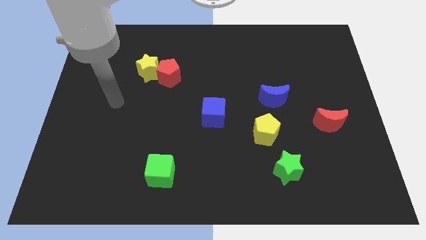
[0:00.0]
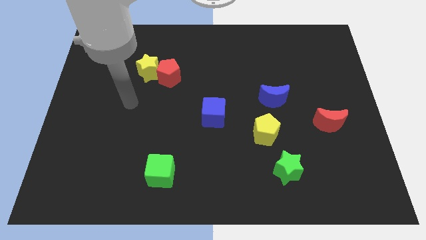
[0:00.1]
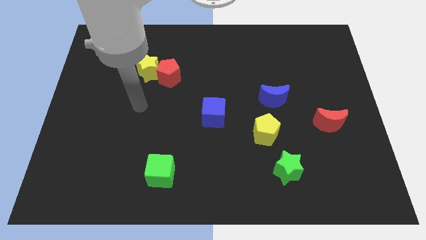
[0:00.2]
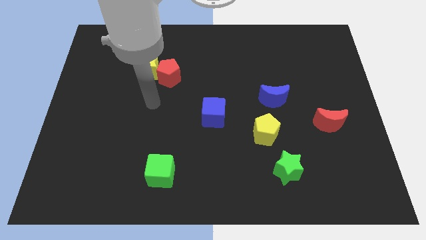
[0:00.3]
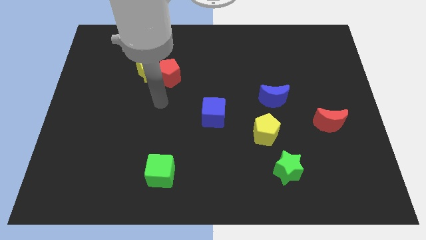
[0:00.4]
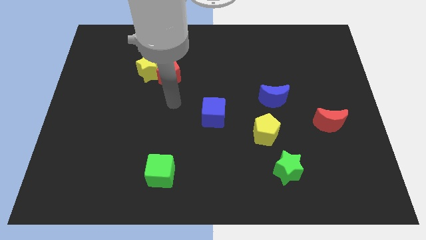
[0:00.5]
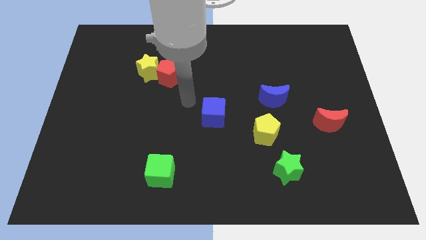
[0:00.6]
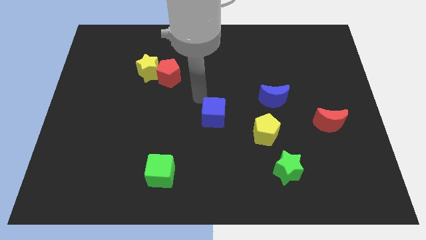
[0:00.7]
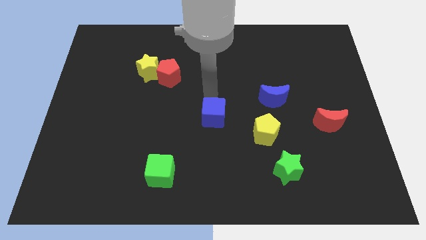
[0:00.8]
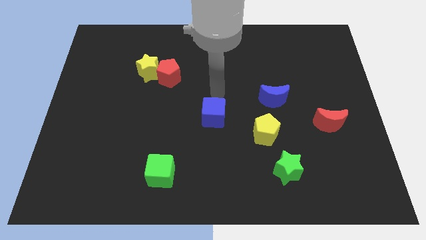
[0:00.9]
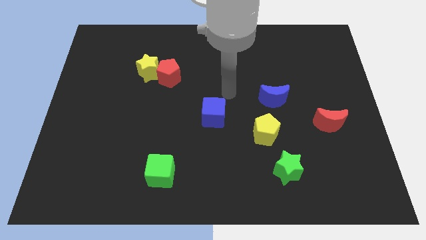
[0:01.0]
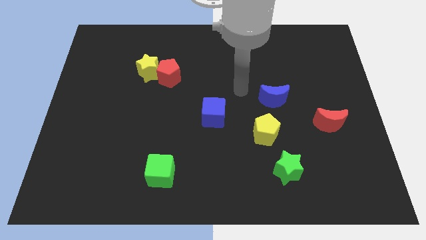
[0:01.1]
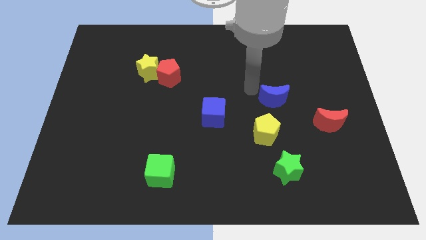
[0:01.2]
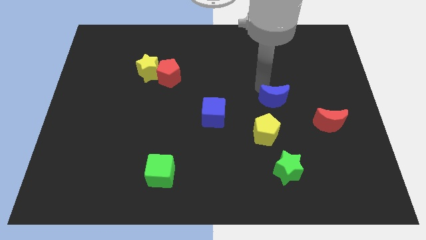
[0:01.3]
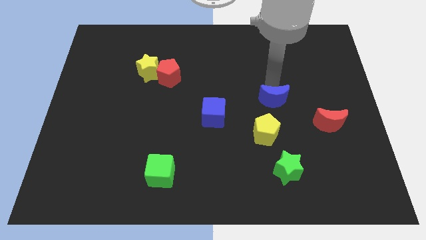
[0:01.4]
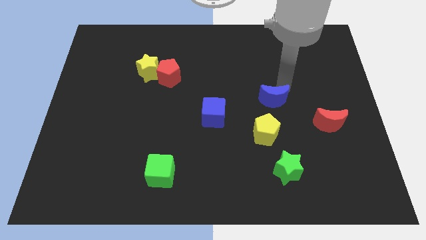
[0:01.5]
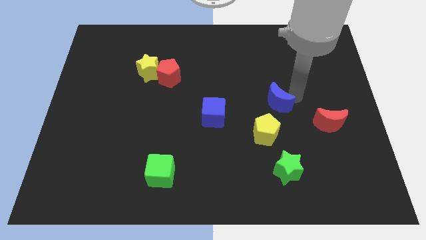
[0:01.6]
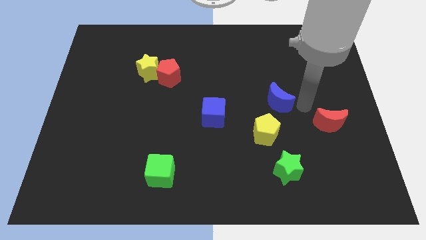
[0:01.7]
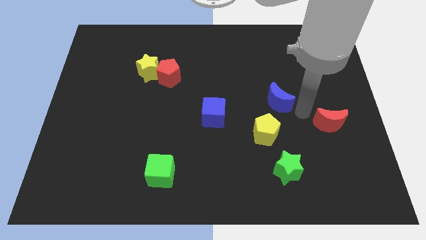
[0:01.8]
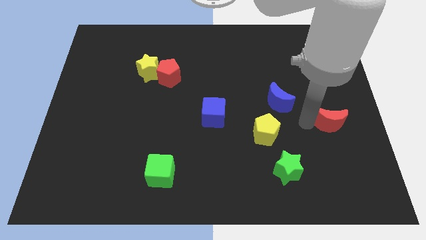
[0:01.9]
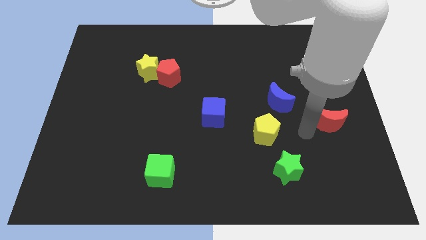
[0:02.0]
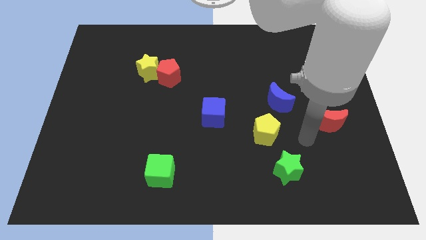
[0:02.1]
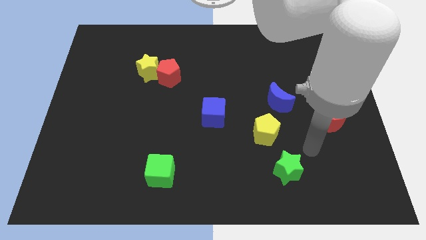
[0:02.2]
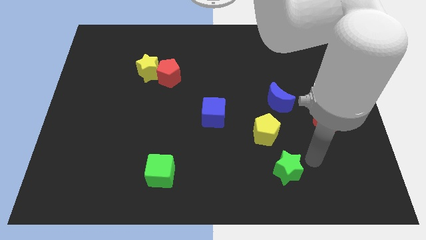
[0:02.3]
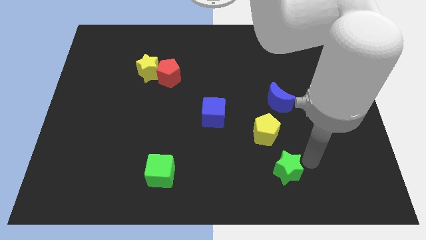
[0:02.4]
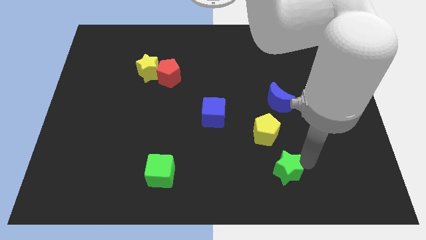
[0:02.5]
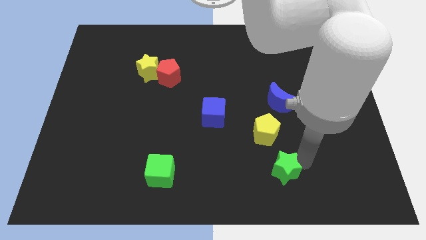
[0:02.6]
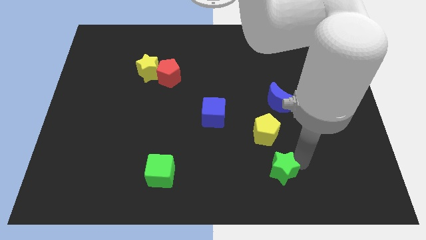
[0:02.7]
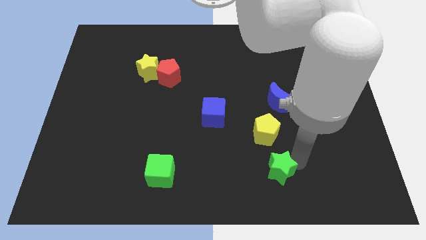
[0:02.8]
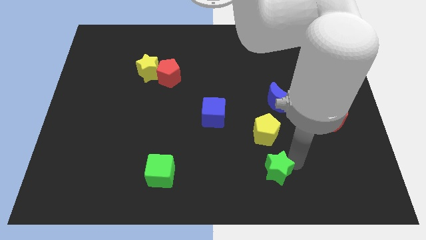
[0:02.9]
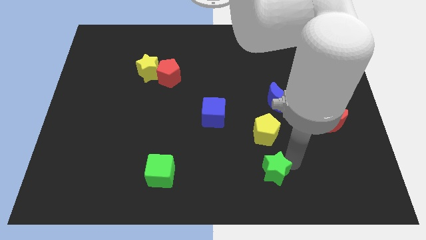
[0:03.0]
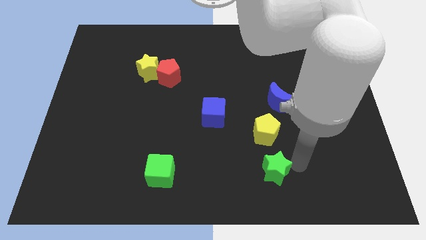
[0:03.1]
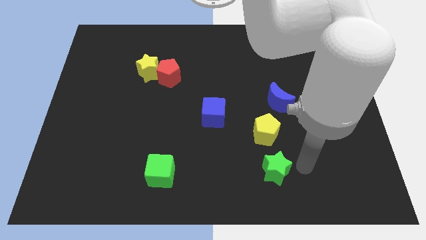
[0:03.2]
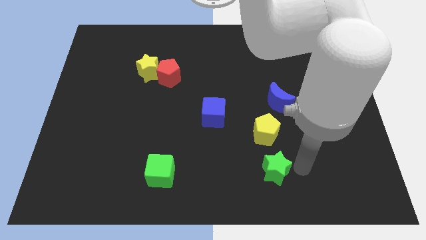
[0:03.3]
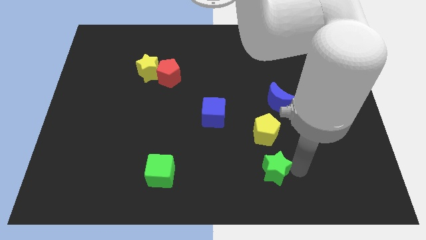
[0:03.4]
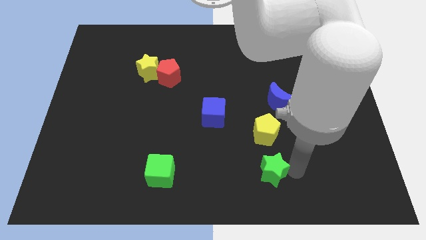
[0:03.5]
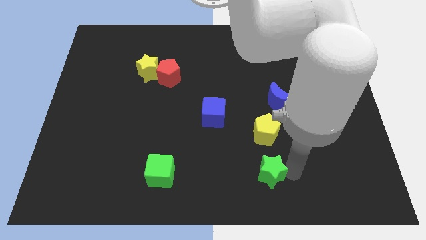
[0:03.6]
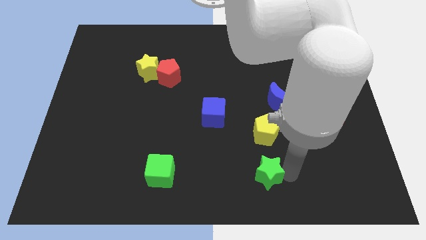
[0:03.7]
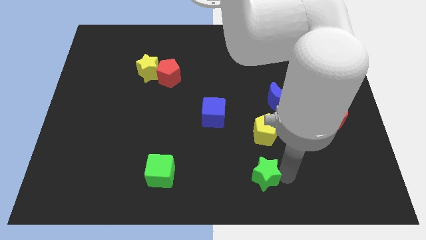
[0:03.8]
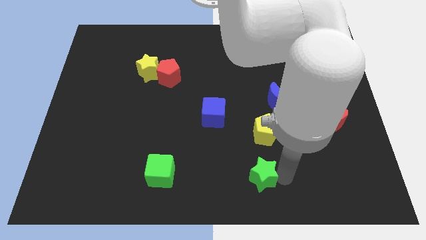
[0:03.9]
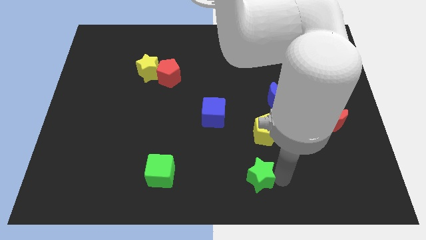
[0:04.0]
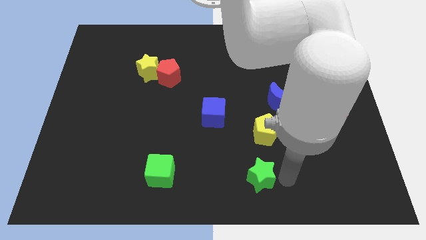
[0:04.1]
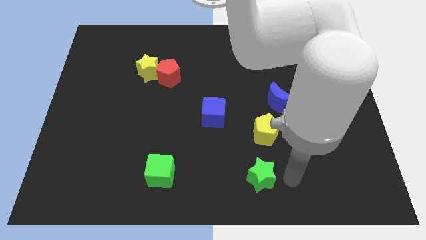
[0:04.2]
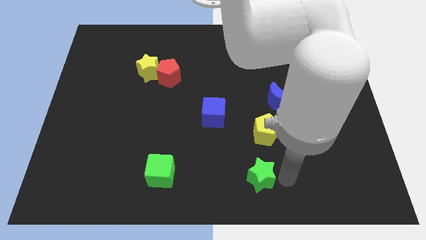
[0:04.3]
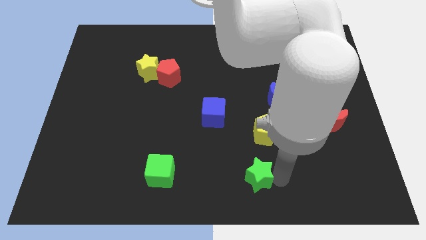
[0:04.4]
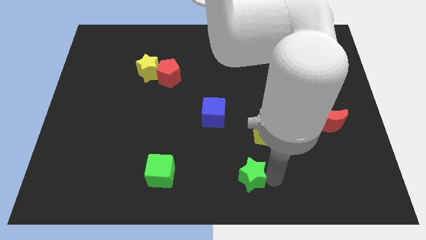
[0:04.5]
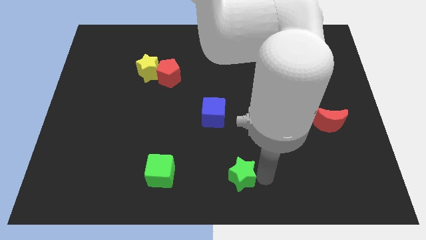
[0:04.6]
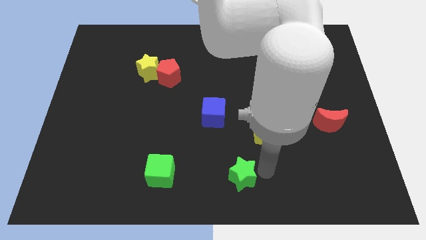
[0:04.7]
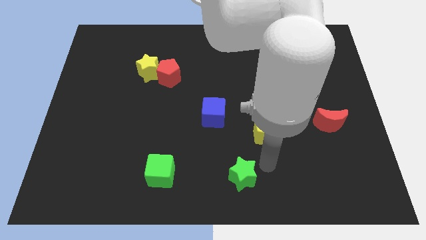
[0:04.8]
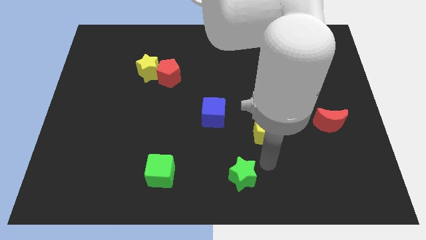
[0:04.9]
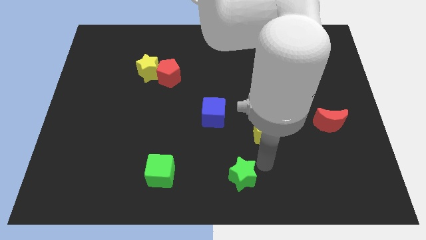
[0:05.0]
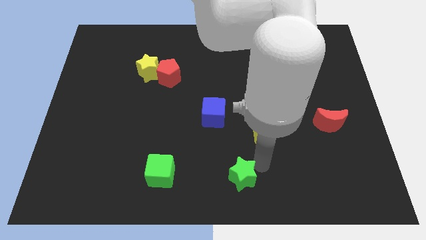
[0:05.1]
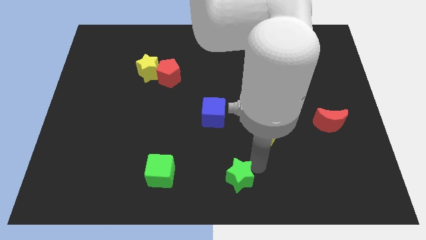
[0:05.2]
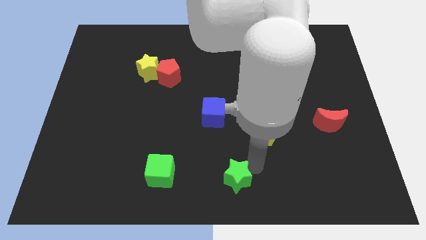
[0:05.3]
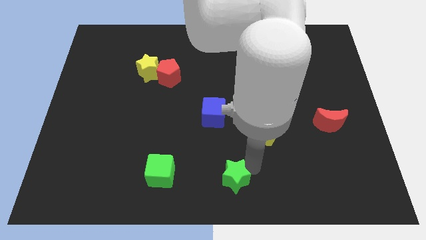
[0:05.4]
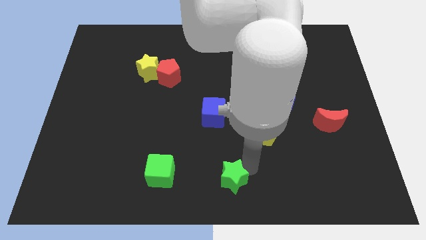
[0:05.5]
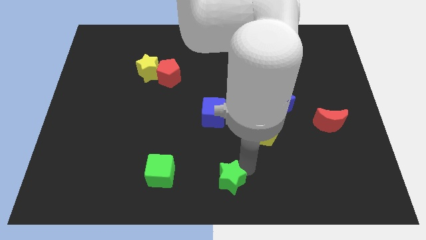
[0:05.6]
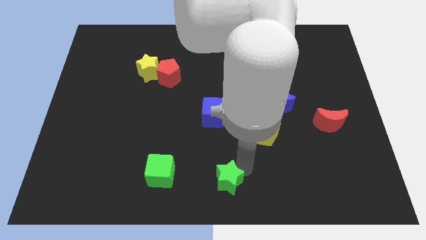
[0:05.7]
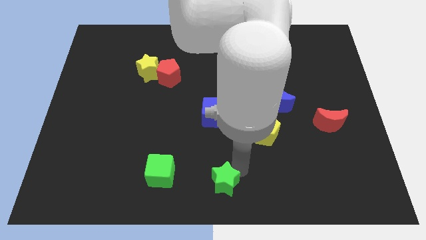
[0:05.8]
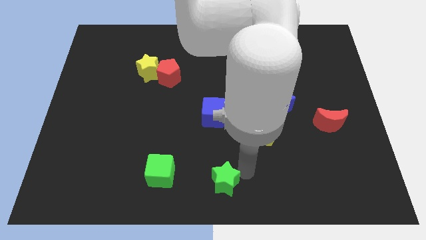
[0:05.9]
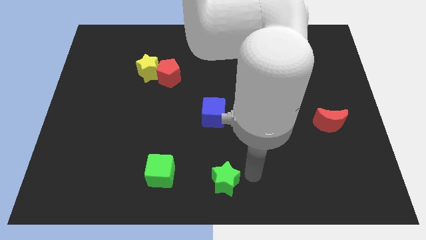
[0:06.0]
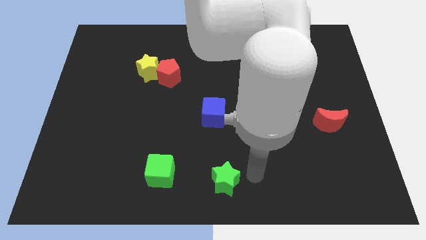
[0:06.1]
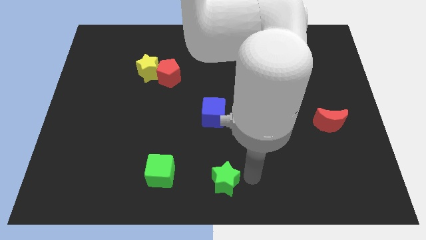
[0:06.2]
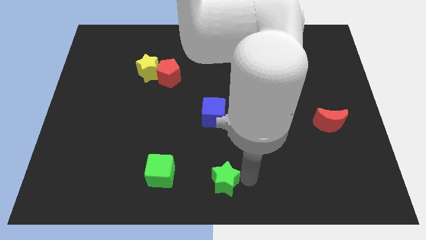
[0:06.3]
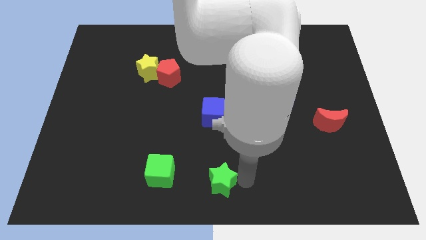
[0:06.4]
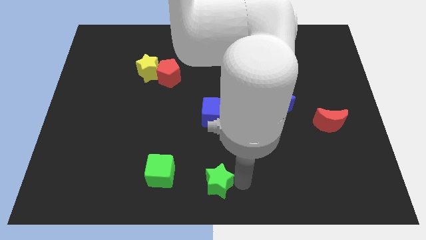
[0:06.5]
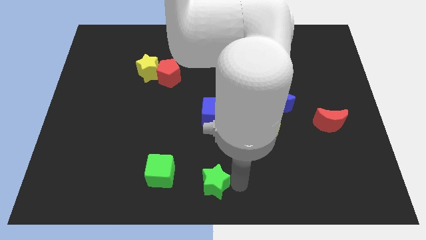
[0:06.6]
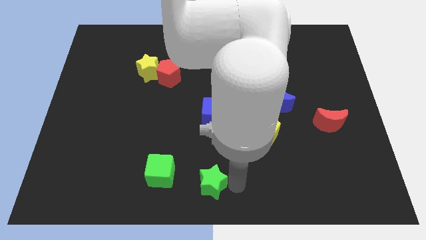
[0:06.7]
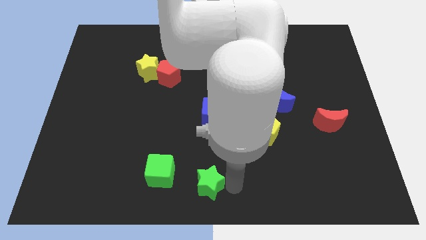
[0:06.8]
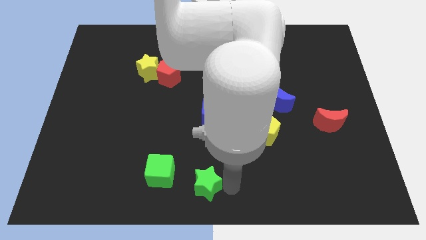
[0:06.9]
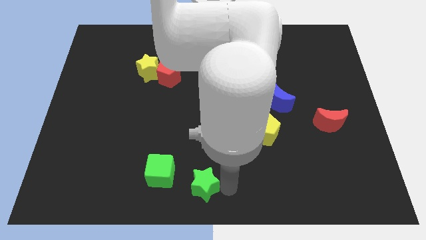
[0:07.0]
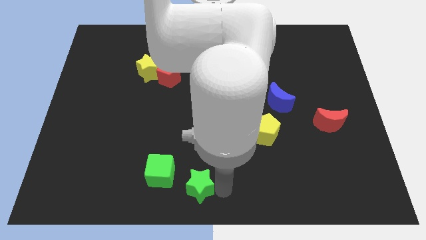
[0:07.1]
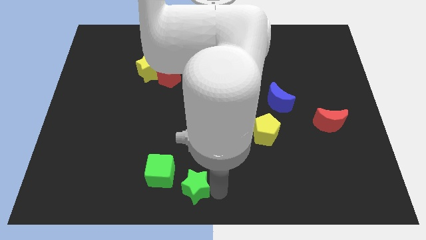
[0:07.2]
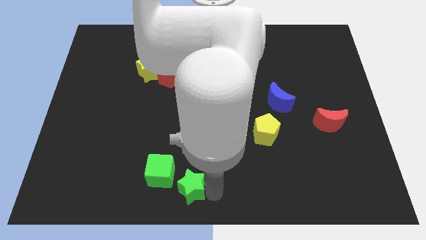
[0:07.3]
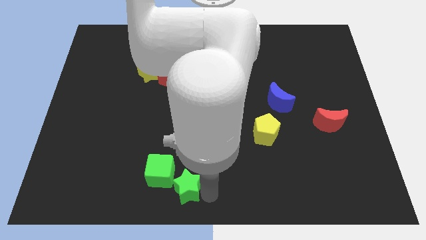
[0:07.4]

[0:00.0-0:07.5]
push the green star left

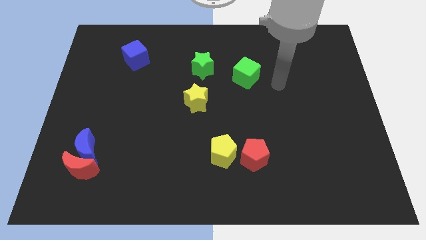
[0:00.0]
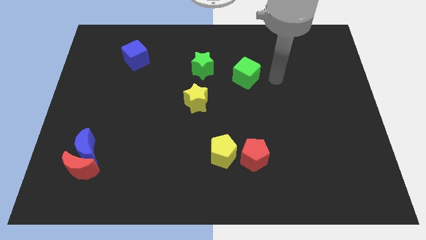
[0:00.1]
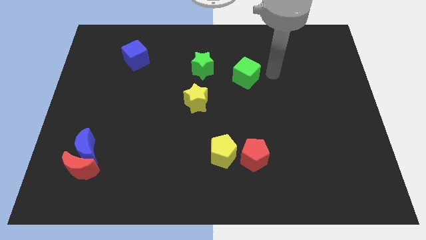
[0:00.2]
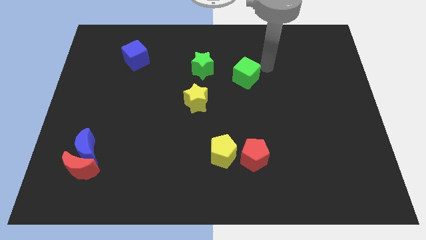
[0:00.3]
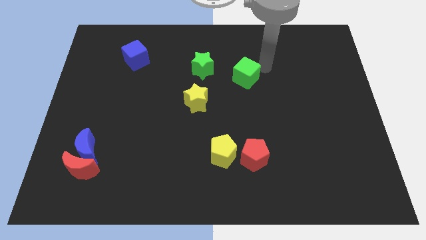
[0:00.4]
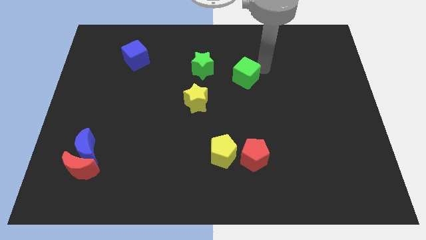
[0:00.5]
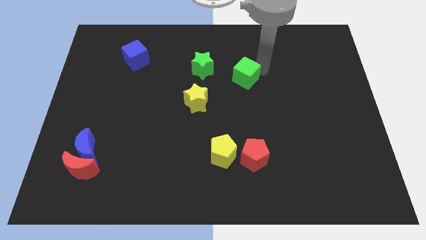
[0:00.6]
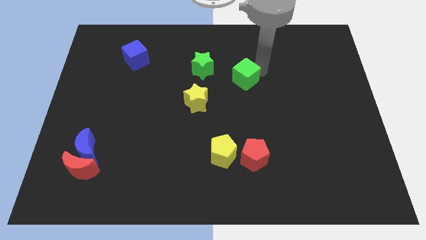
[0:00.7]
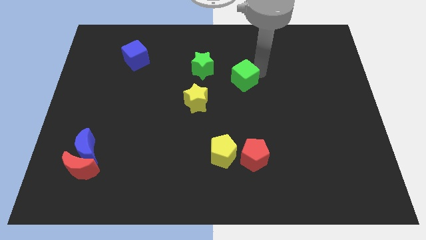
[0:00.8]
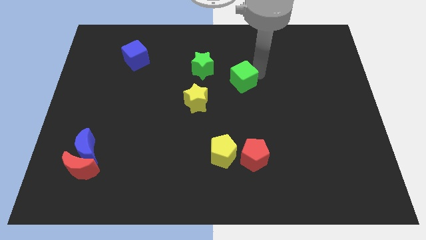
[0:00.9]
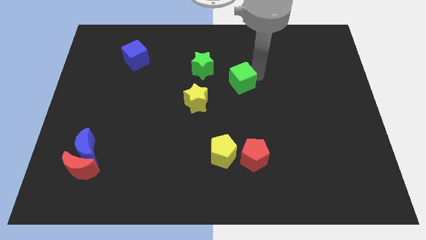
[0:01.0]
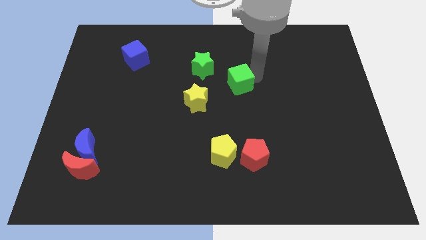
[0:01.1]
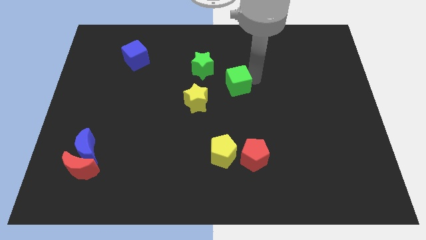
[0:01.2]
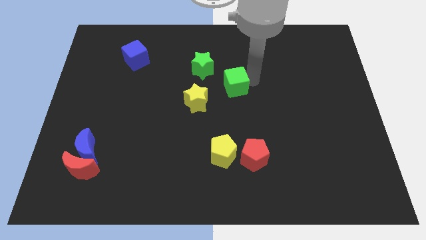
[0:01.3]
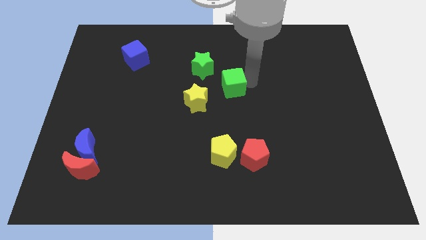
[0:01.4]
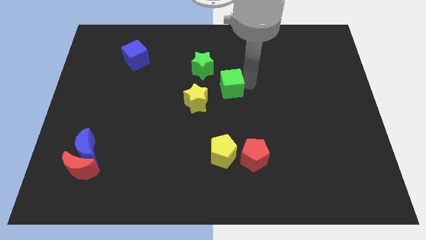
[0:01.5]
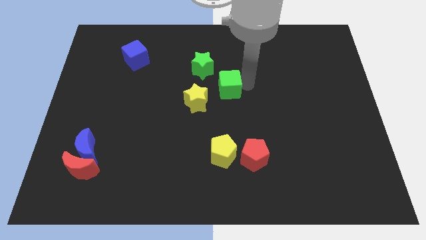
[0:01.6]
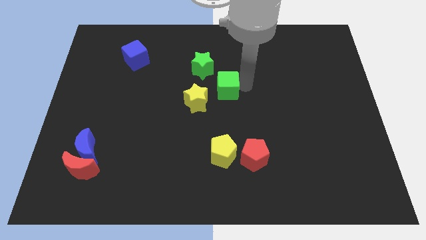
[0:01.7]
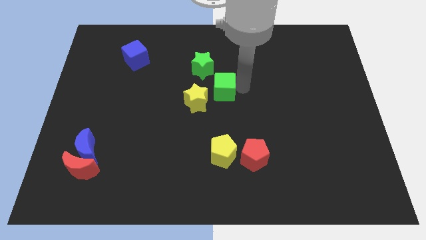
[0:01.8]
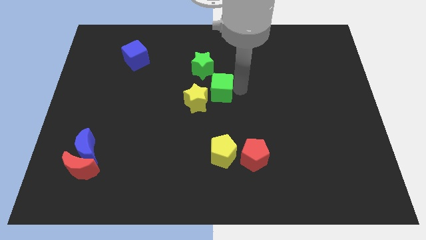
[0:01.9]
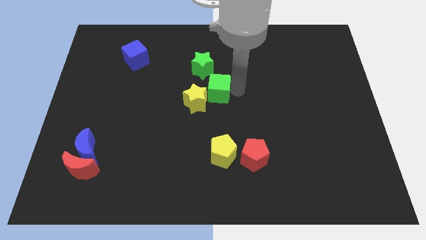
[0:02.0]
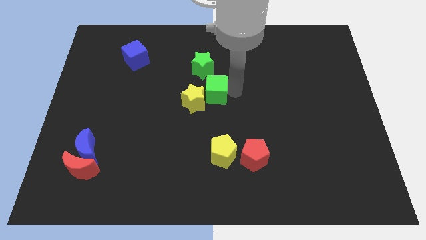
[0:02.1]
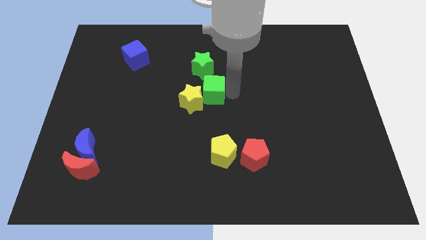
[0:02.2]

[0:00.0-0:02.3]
push the green cube left somewhat
